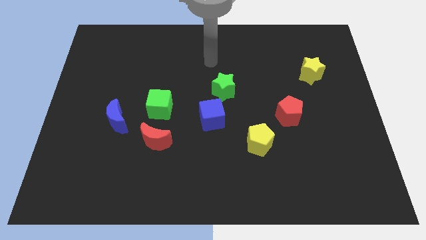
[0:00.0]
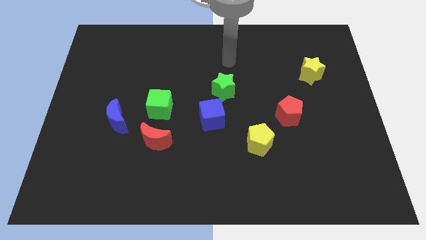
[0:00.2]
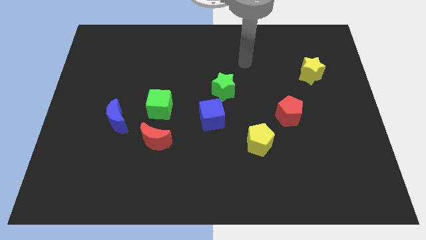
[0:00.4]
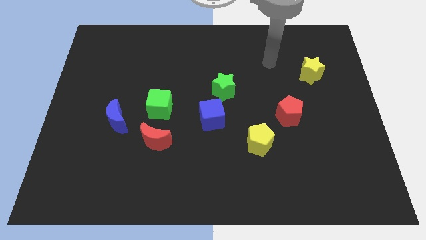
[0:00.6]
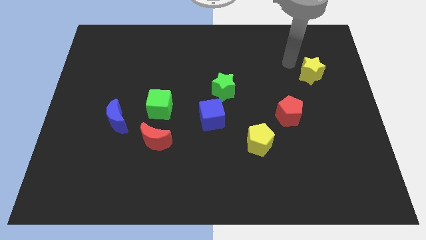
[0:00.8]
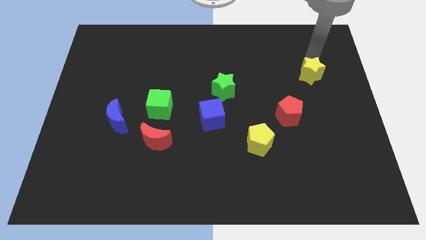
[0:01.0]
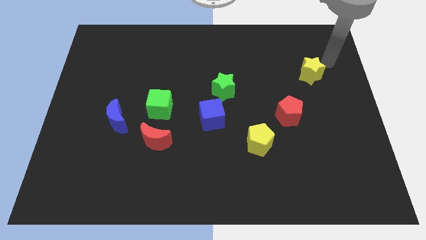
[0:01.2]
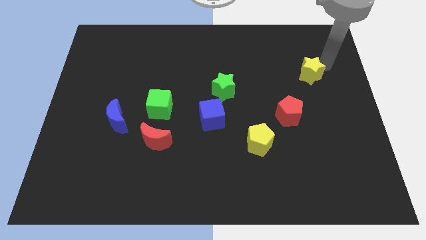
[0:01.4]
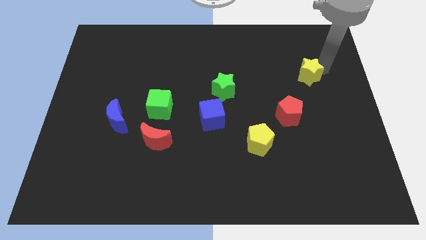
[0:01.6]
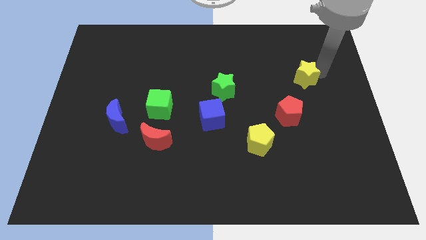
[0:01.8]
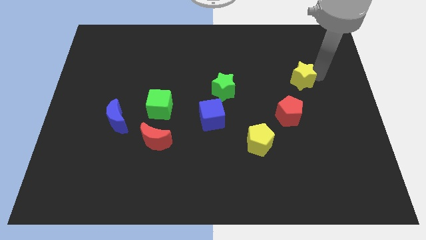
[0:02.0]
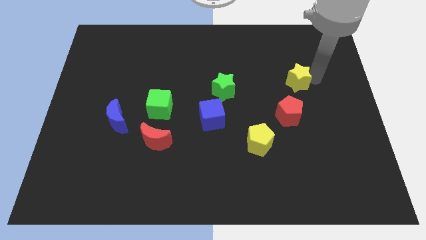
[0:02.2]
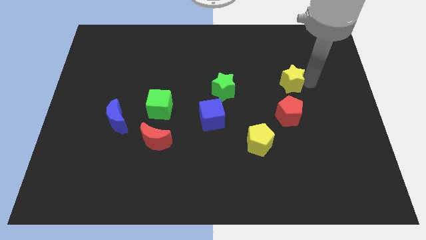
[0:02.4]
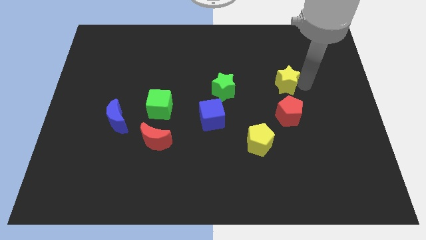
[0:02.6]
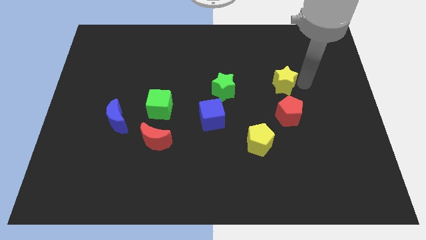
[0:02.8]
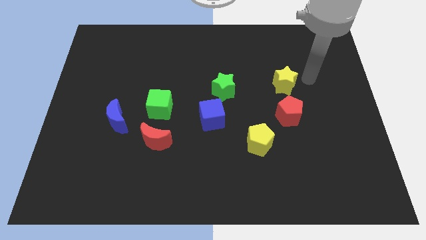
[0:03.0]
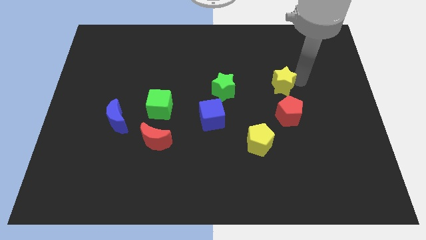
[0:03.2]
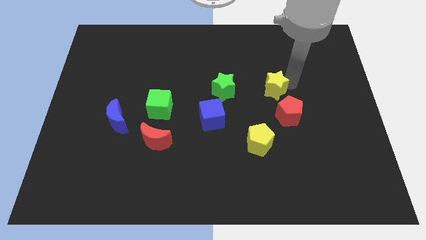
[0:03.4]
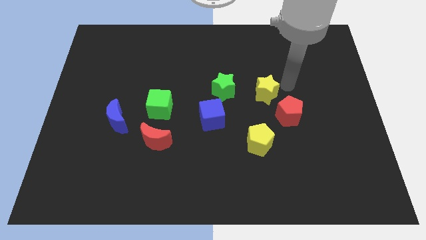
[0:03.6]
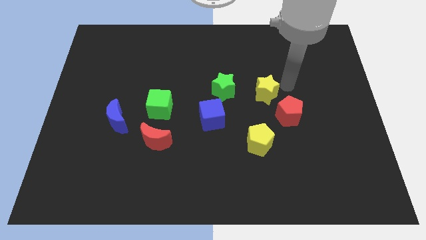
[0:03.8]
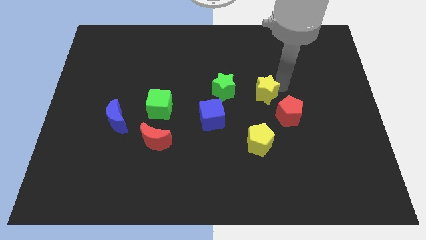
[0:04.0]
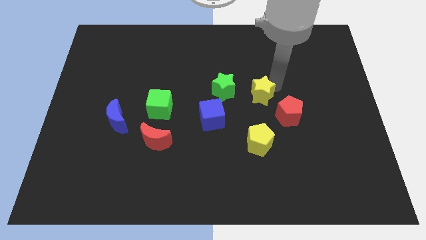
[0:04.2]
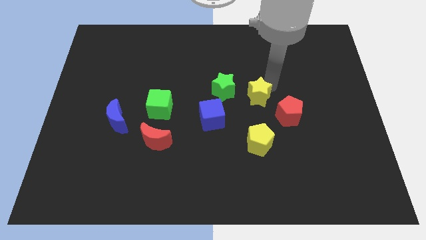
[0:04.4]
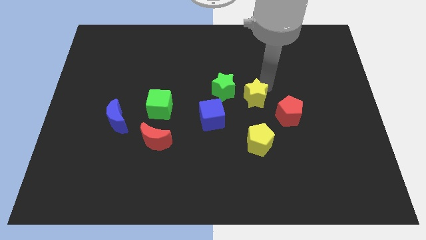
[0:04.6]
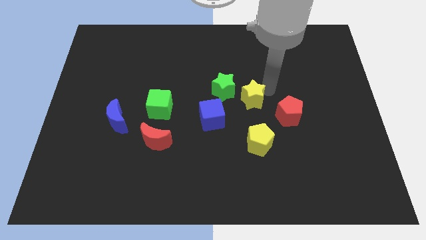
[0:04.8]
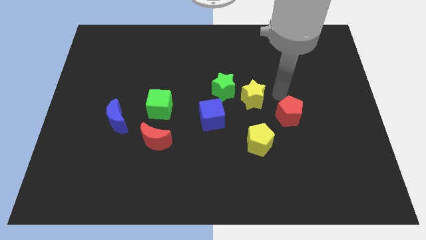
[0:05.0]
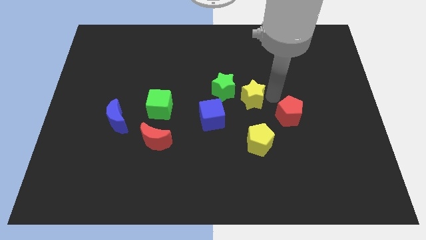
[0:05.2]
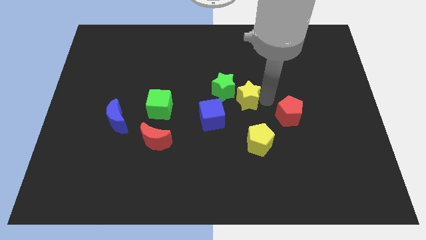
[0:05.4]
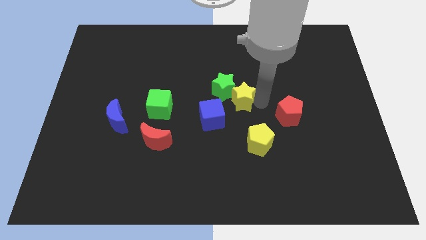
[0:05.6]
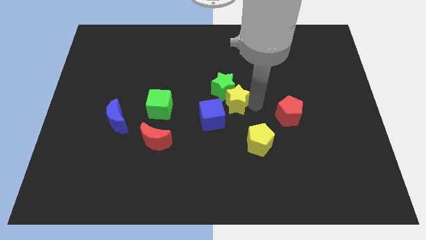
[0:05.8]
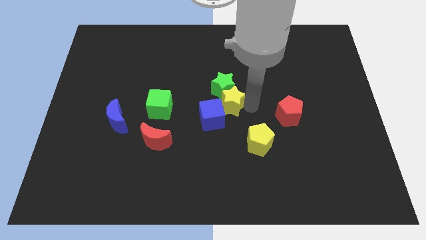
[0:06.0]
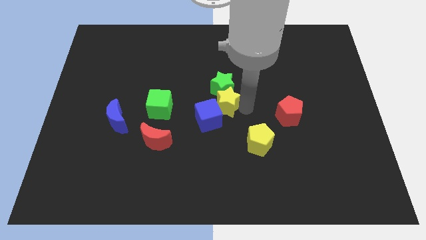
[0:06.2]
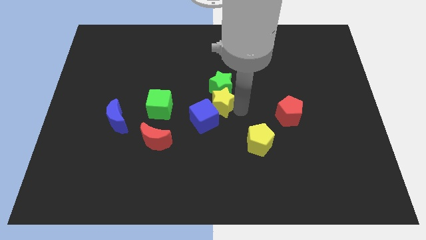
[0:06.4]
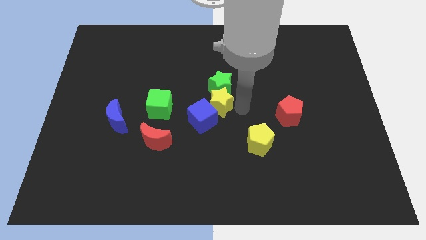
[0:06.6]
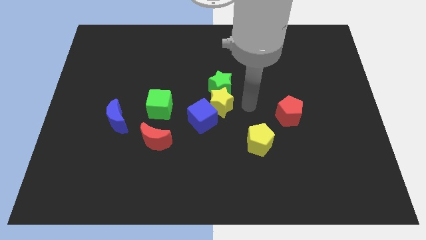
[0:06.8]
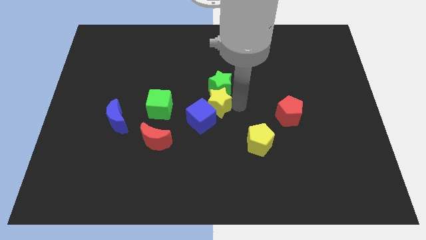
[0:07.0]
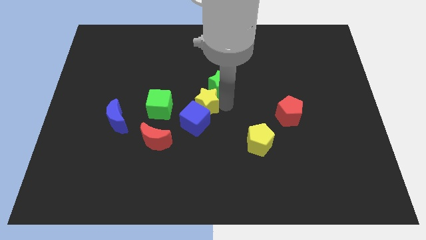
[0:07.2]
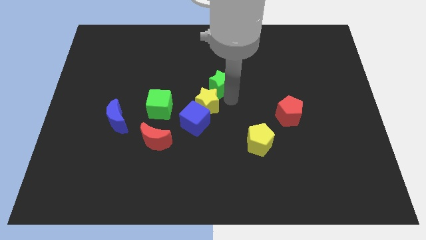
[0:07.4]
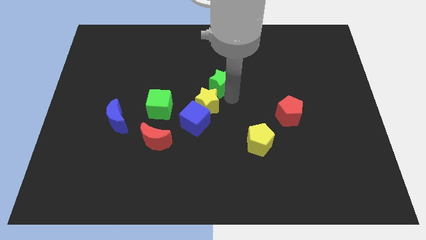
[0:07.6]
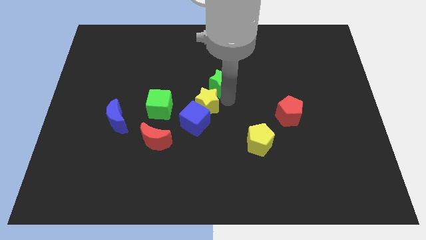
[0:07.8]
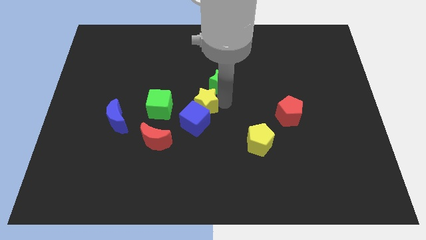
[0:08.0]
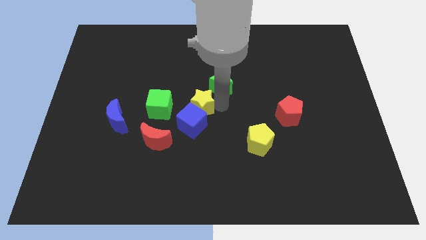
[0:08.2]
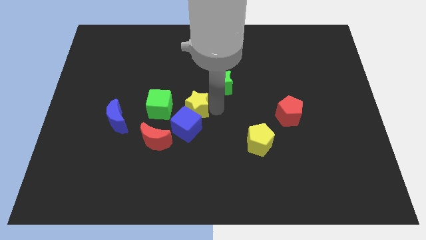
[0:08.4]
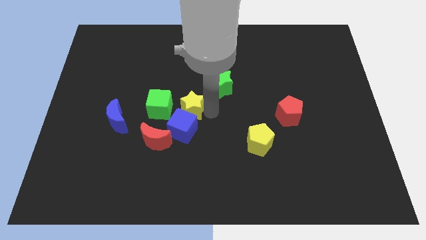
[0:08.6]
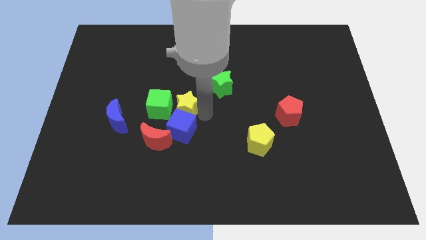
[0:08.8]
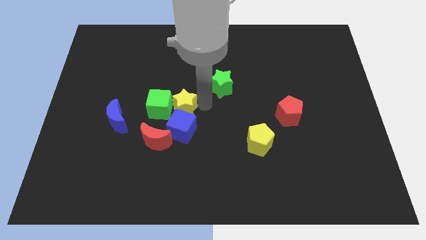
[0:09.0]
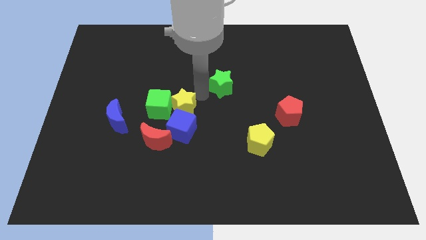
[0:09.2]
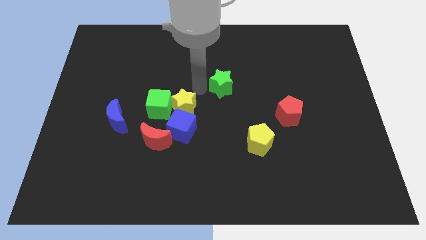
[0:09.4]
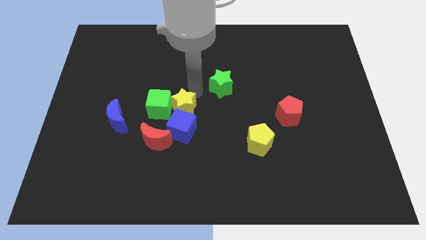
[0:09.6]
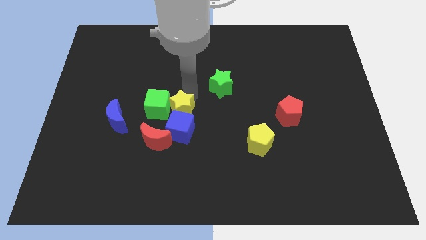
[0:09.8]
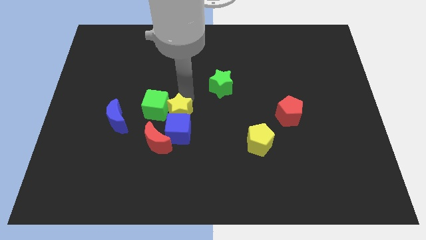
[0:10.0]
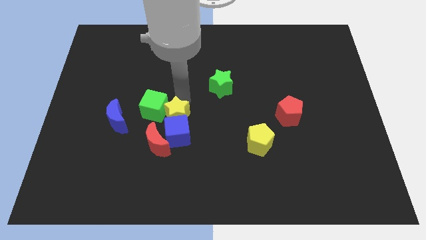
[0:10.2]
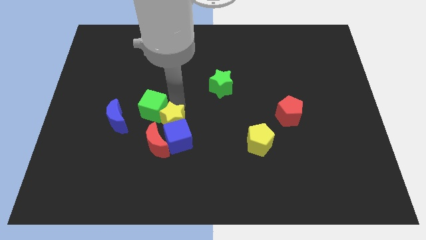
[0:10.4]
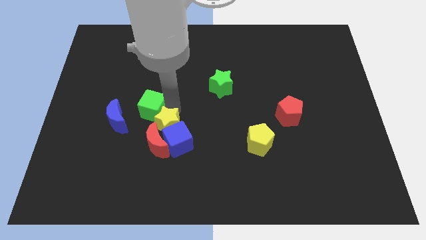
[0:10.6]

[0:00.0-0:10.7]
push the yellow star close to the red moon

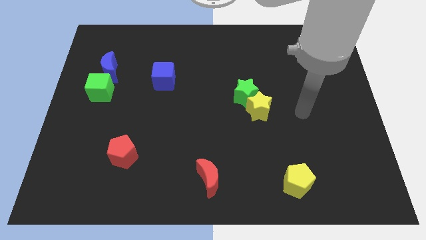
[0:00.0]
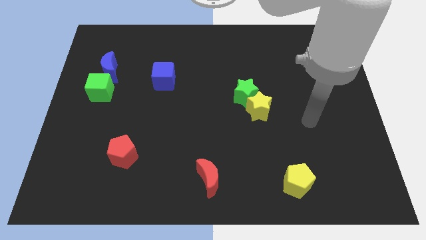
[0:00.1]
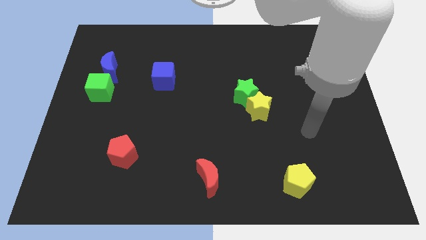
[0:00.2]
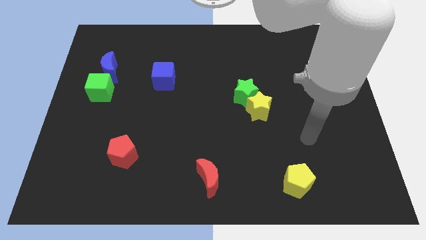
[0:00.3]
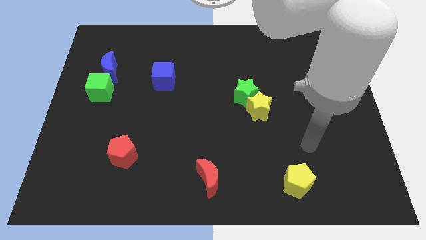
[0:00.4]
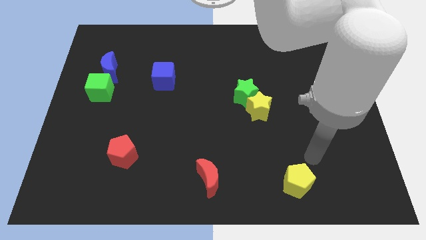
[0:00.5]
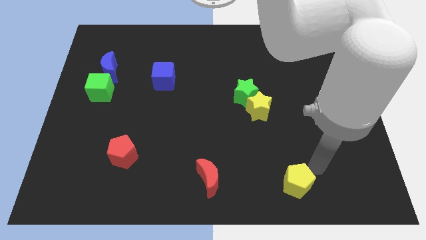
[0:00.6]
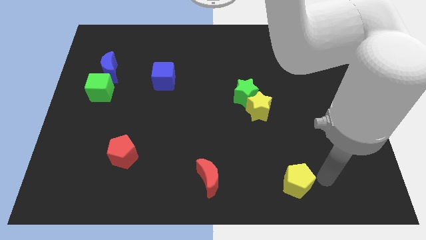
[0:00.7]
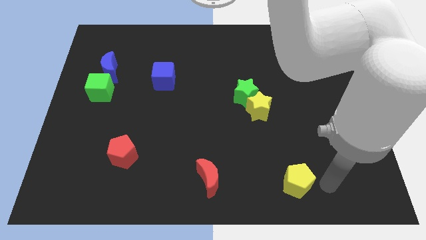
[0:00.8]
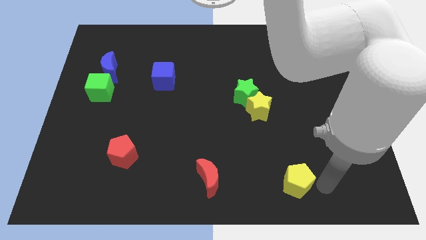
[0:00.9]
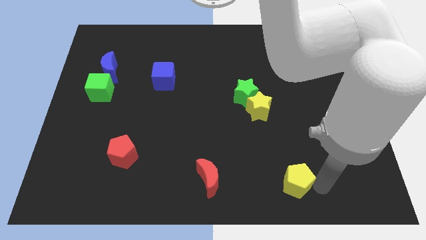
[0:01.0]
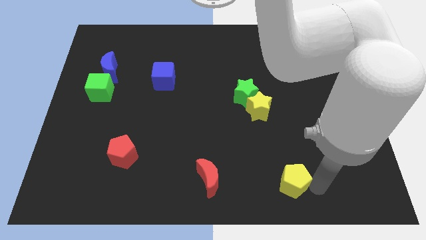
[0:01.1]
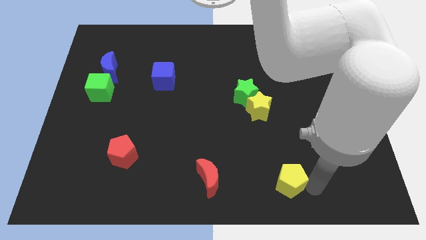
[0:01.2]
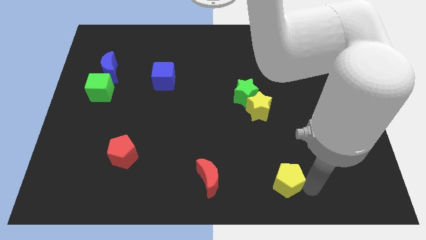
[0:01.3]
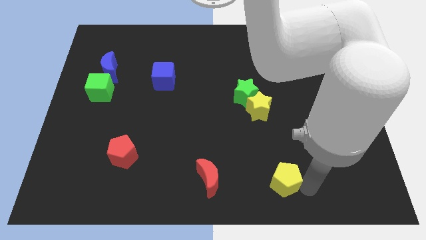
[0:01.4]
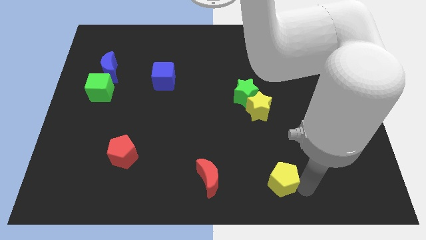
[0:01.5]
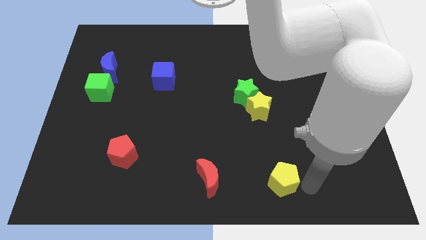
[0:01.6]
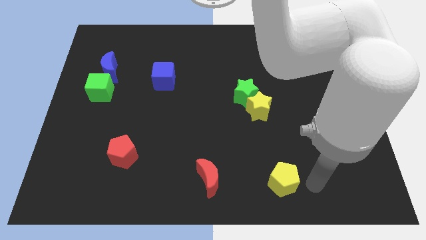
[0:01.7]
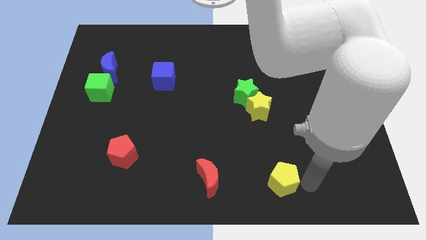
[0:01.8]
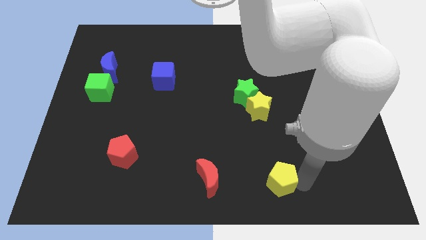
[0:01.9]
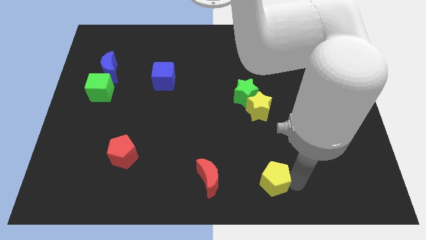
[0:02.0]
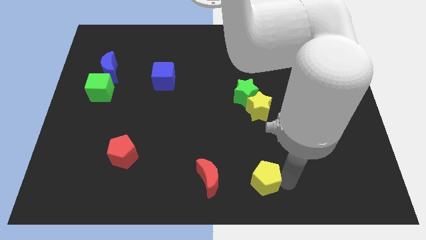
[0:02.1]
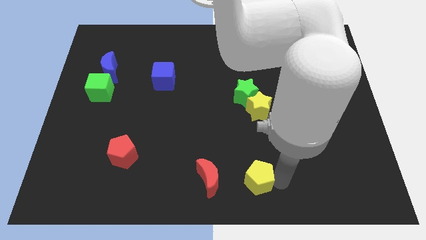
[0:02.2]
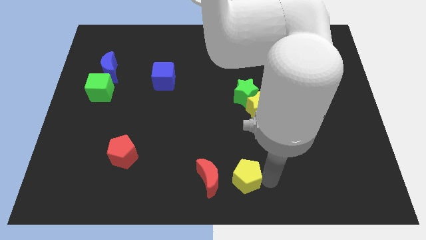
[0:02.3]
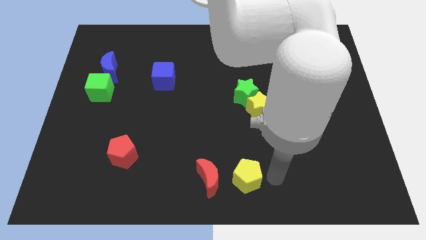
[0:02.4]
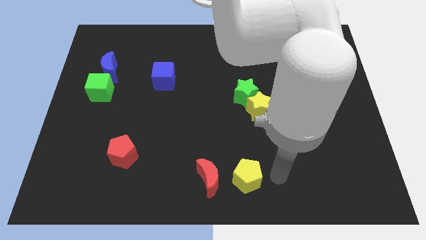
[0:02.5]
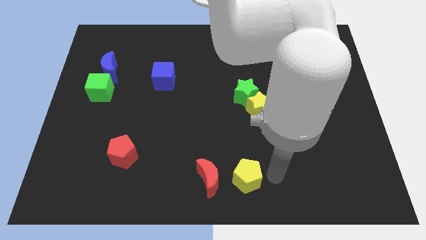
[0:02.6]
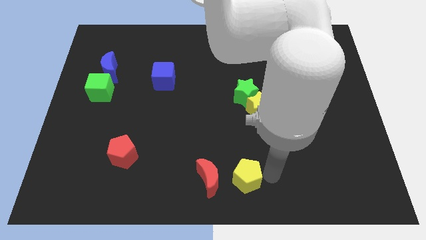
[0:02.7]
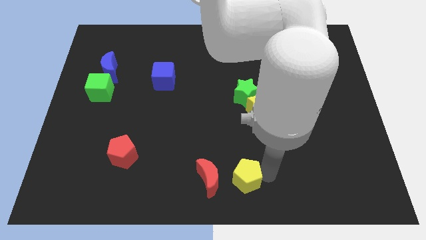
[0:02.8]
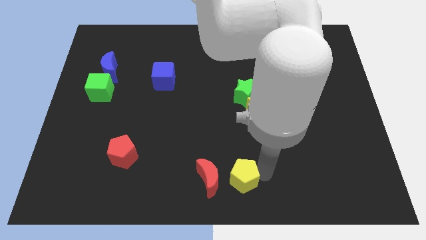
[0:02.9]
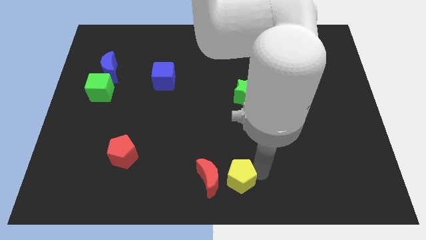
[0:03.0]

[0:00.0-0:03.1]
push the yellow pentagon next to the red moon
